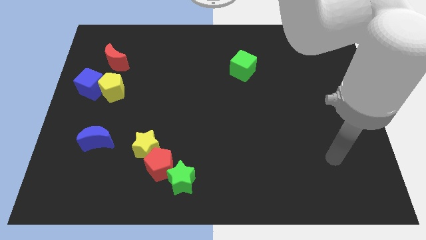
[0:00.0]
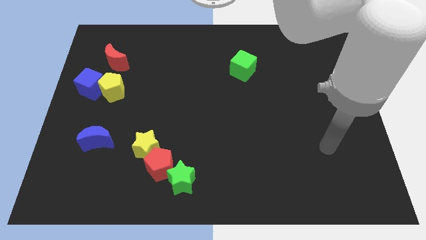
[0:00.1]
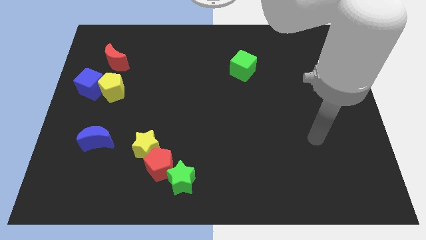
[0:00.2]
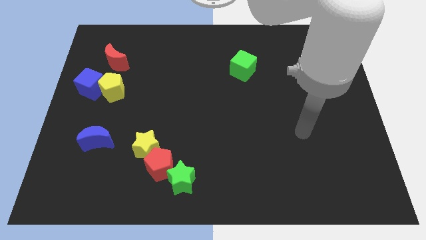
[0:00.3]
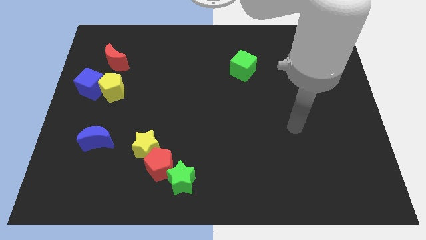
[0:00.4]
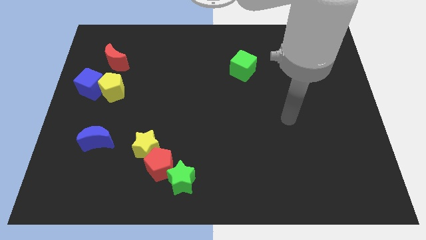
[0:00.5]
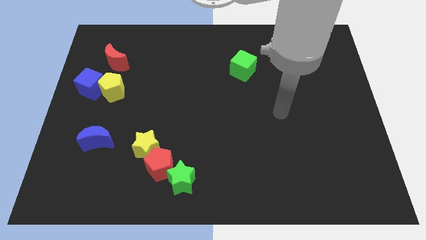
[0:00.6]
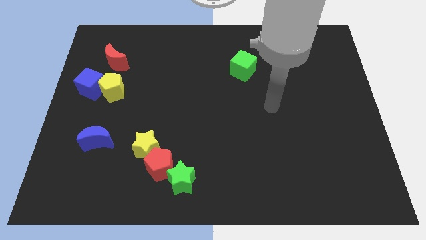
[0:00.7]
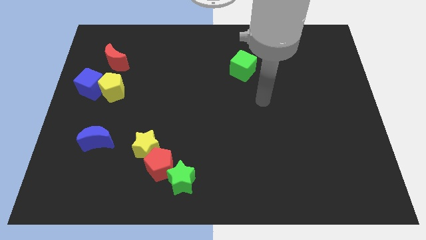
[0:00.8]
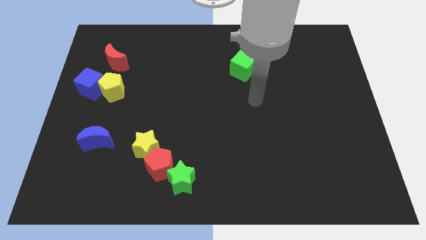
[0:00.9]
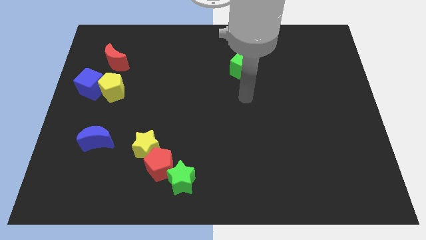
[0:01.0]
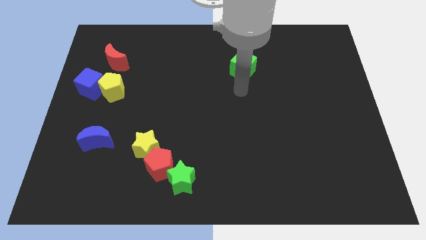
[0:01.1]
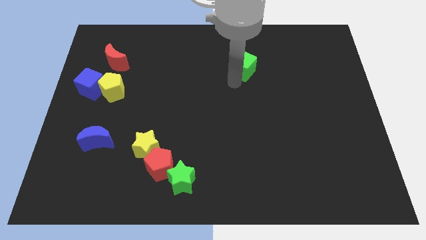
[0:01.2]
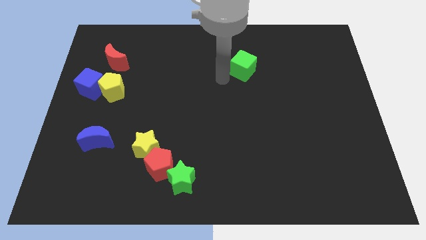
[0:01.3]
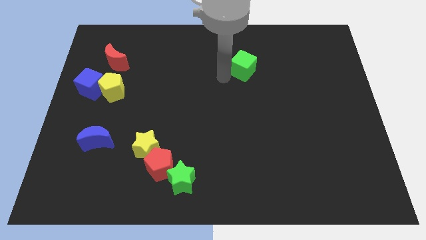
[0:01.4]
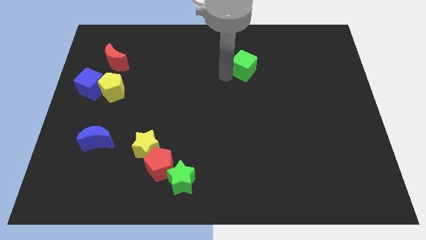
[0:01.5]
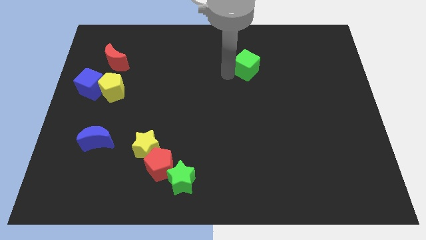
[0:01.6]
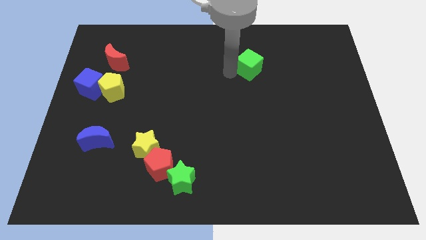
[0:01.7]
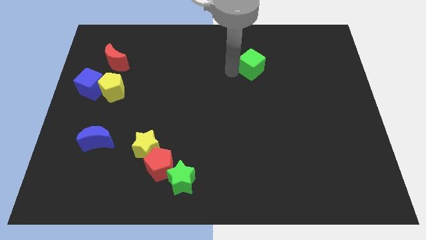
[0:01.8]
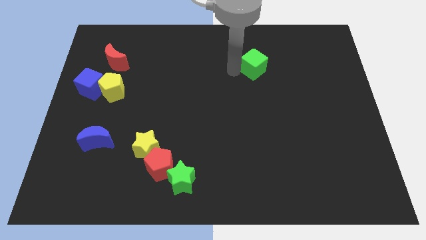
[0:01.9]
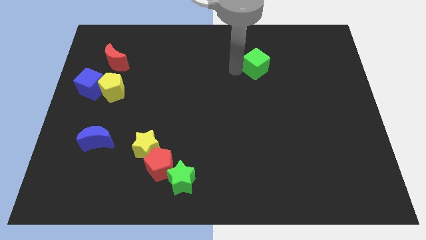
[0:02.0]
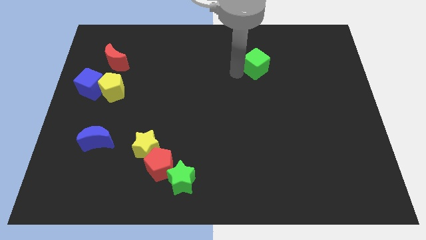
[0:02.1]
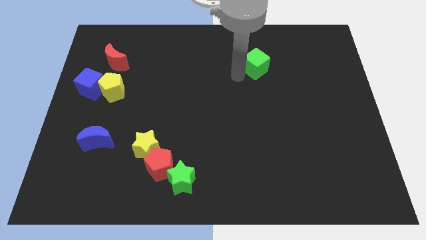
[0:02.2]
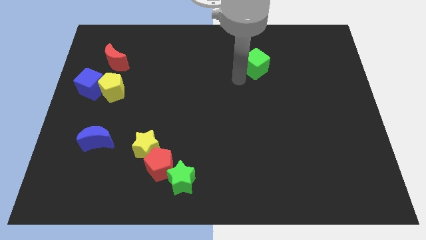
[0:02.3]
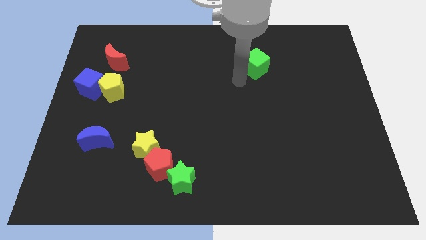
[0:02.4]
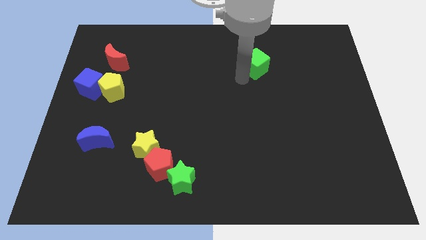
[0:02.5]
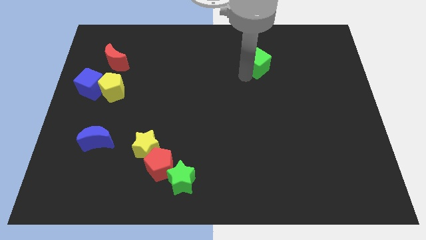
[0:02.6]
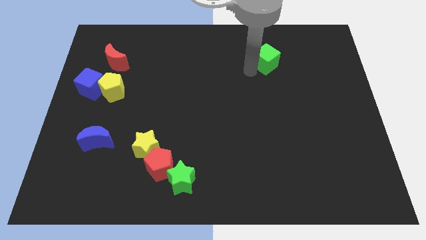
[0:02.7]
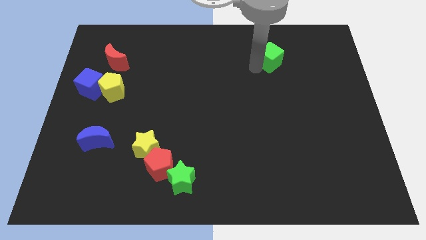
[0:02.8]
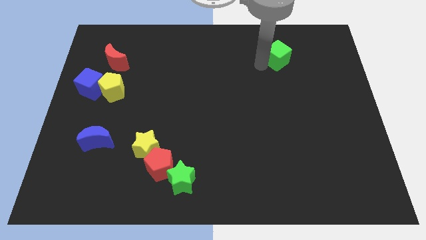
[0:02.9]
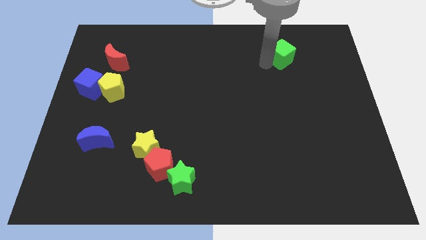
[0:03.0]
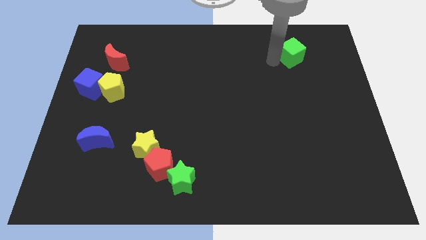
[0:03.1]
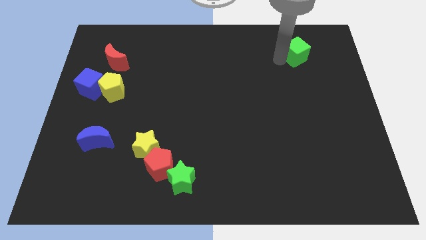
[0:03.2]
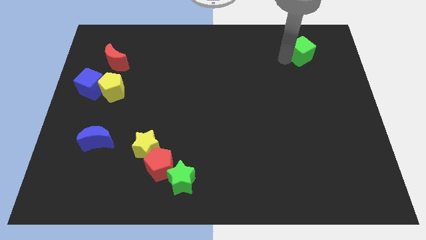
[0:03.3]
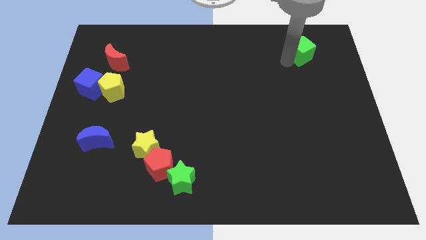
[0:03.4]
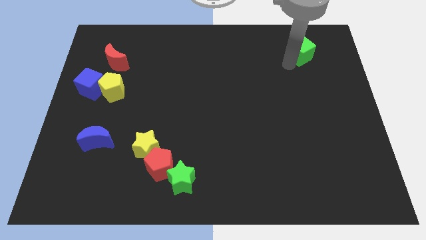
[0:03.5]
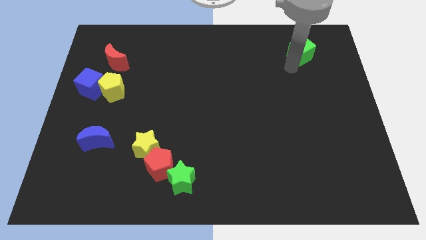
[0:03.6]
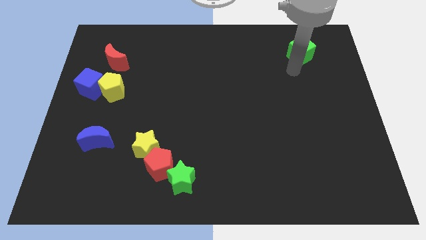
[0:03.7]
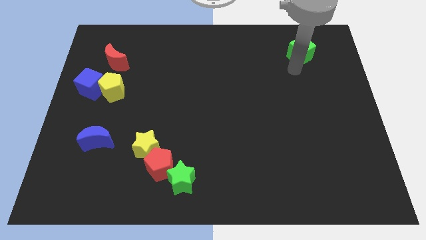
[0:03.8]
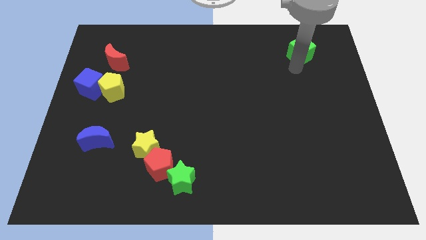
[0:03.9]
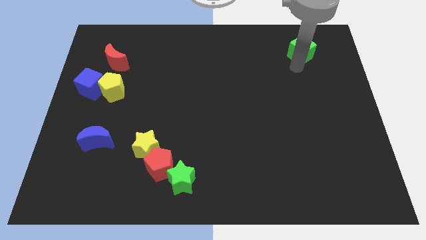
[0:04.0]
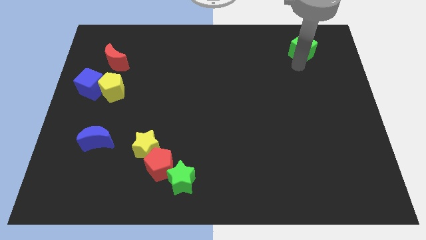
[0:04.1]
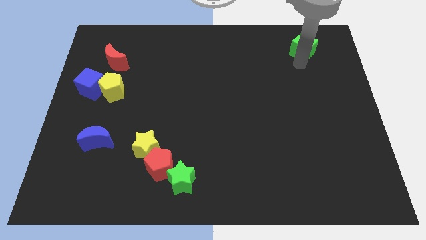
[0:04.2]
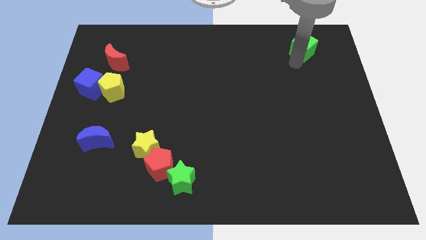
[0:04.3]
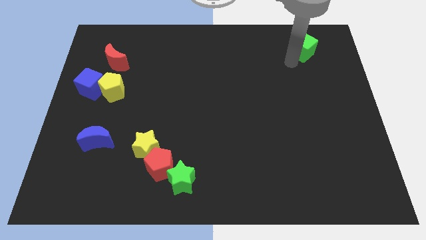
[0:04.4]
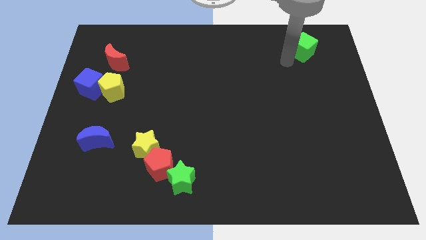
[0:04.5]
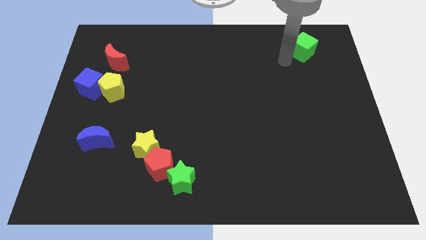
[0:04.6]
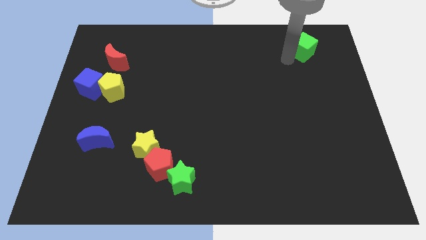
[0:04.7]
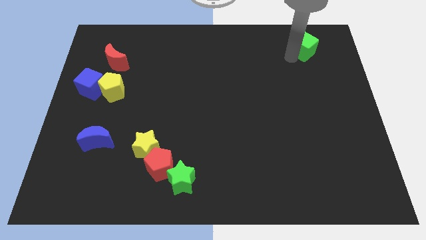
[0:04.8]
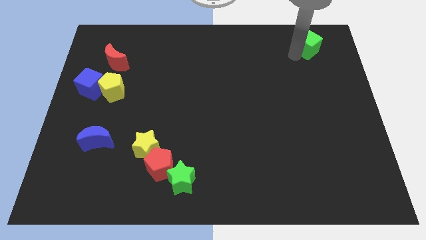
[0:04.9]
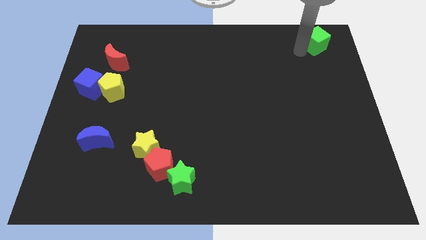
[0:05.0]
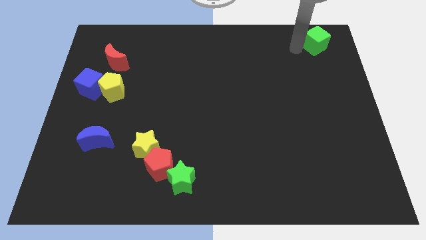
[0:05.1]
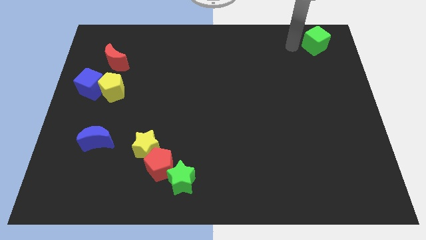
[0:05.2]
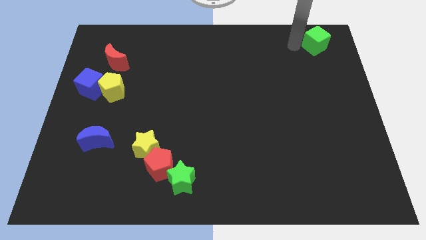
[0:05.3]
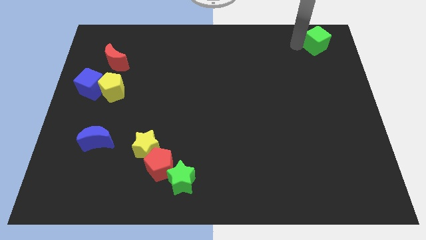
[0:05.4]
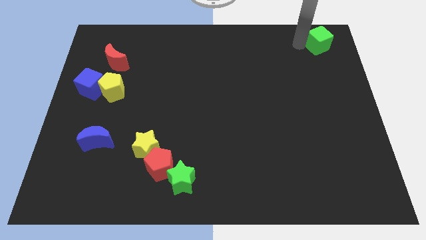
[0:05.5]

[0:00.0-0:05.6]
push the green cube to the top right

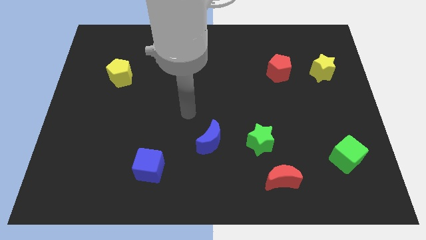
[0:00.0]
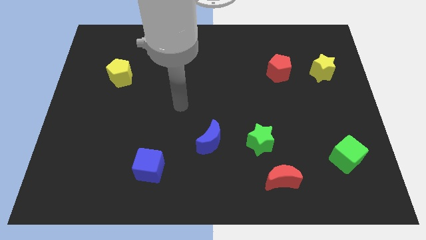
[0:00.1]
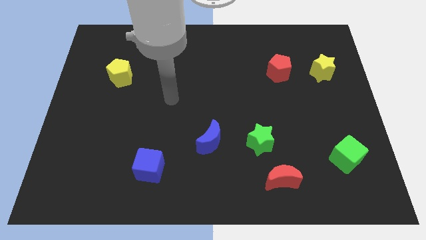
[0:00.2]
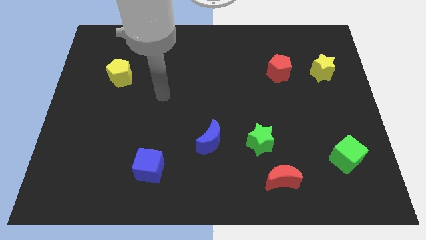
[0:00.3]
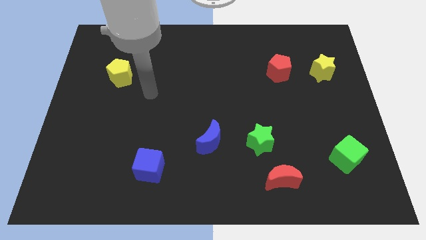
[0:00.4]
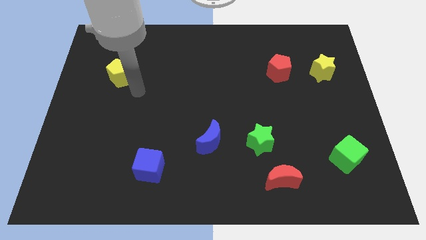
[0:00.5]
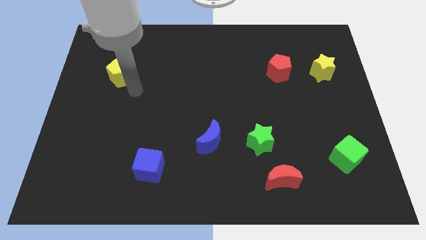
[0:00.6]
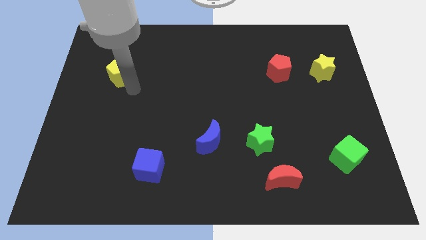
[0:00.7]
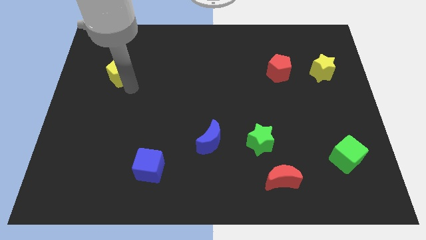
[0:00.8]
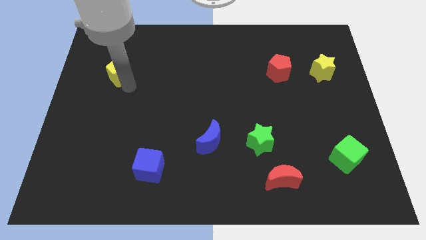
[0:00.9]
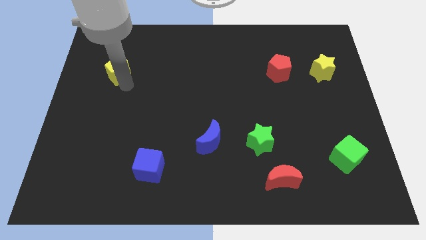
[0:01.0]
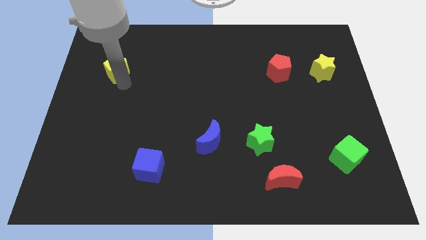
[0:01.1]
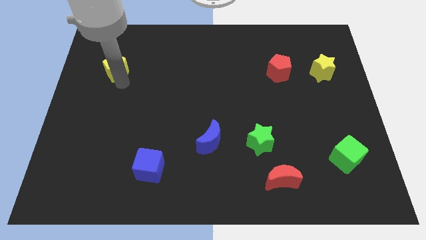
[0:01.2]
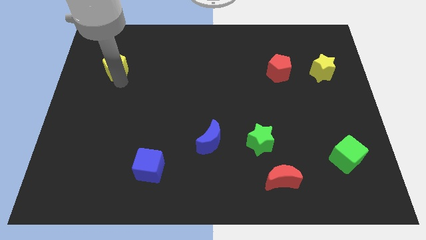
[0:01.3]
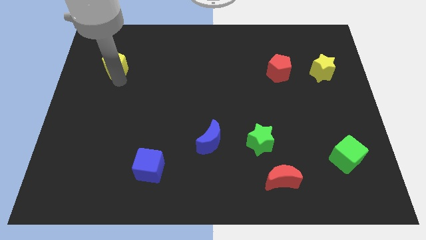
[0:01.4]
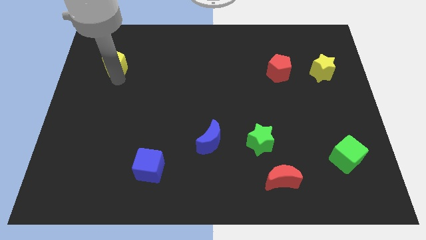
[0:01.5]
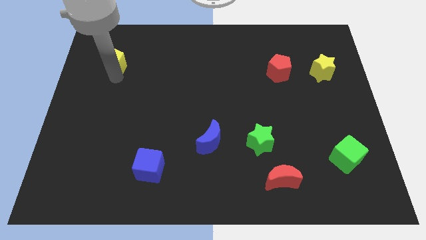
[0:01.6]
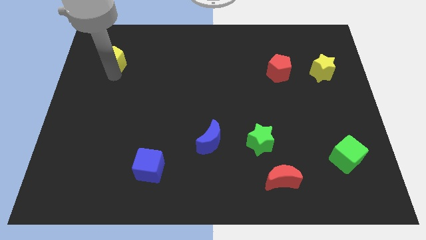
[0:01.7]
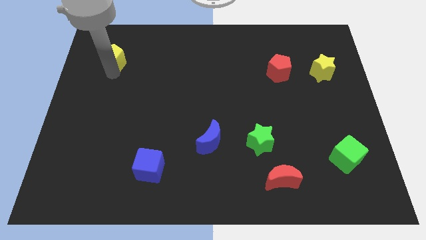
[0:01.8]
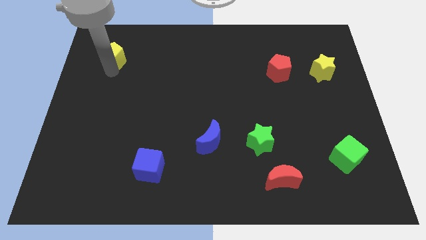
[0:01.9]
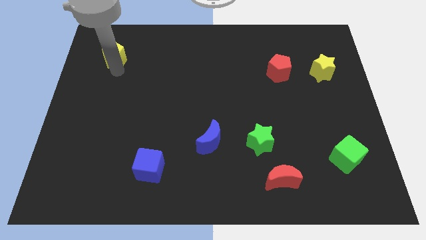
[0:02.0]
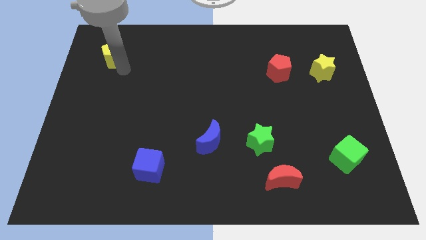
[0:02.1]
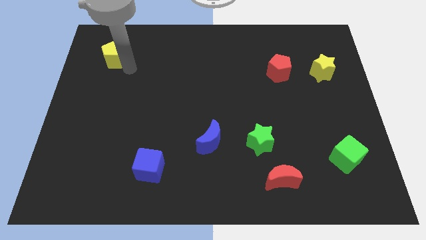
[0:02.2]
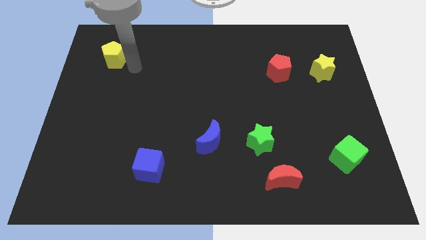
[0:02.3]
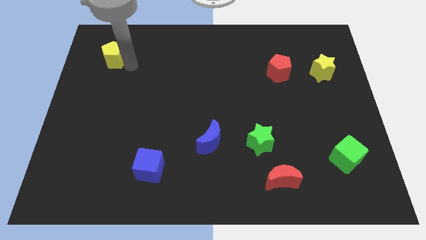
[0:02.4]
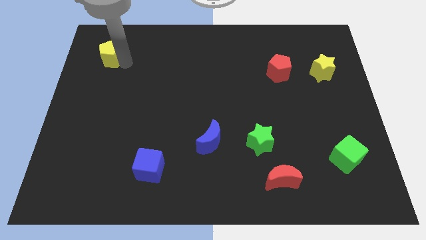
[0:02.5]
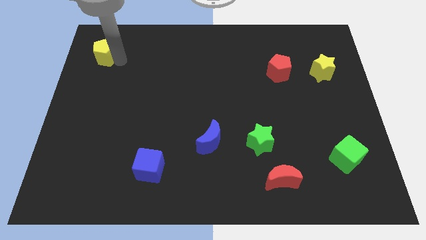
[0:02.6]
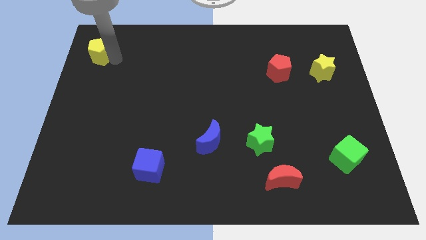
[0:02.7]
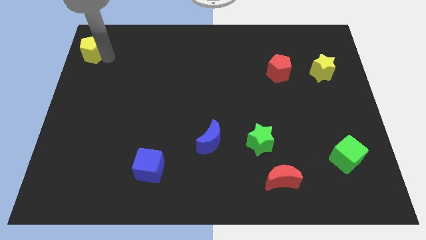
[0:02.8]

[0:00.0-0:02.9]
move the yellow pentagon to the upper left corner
